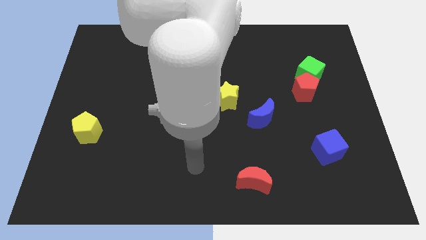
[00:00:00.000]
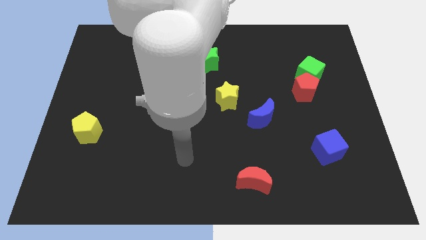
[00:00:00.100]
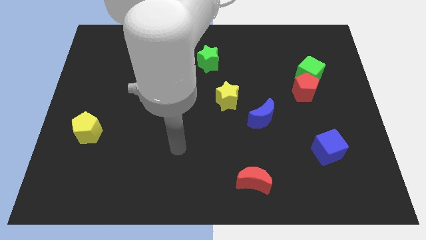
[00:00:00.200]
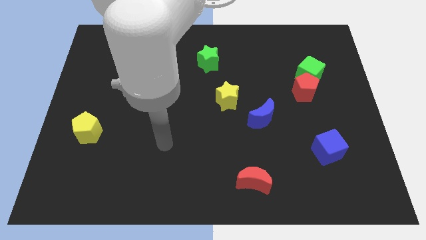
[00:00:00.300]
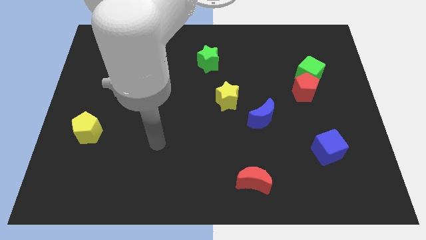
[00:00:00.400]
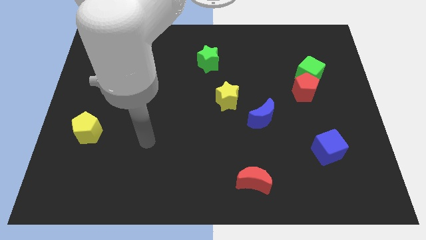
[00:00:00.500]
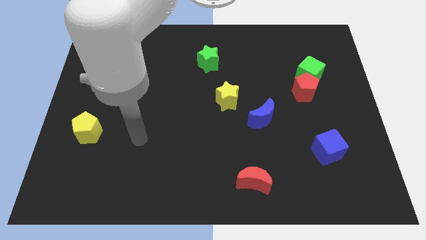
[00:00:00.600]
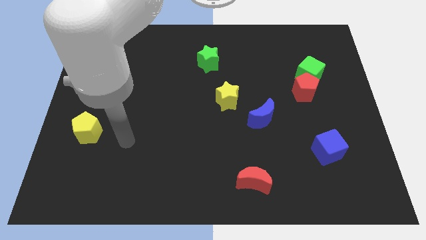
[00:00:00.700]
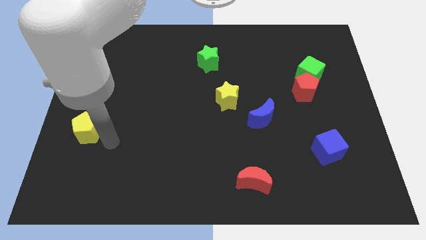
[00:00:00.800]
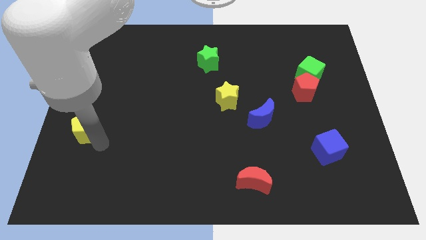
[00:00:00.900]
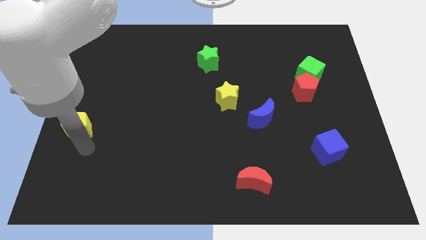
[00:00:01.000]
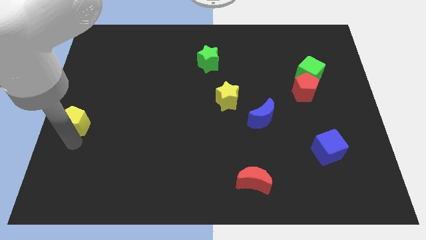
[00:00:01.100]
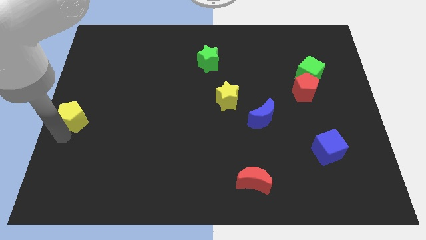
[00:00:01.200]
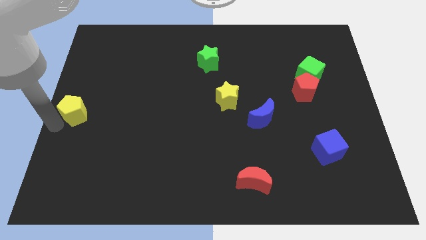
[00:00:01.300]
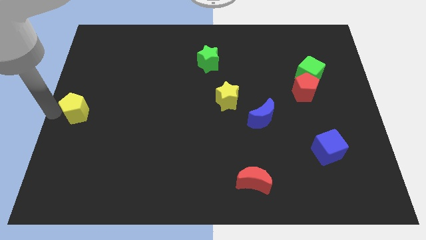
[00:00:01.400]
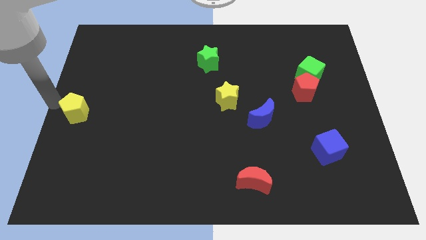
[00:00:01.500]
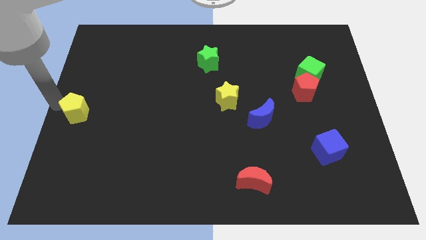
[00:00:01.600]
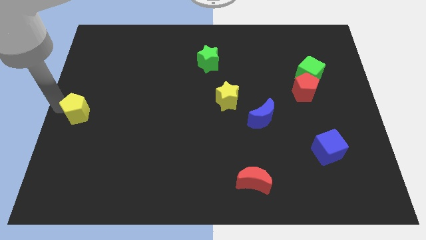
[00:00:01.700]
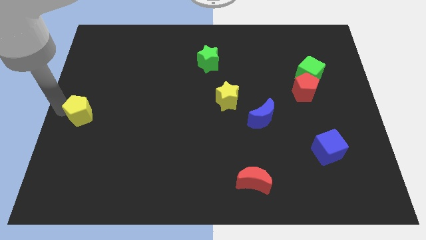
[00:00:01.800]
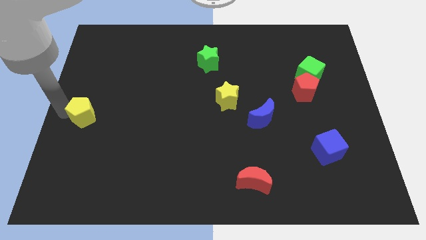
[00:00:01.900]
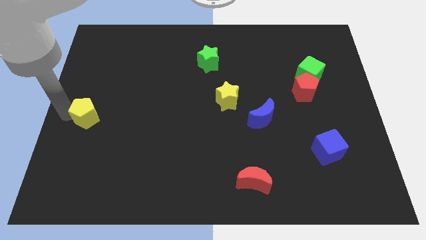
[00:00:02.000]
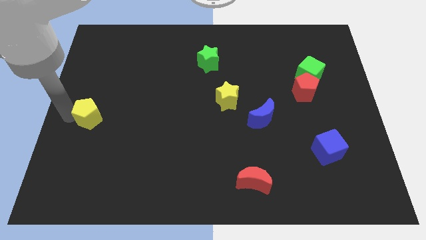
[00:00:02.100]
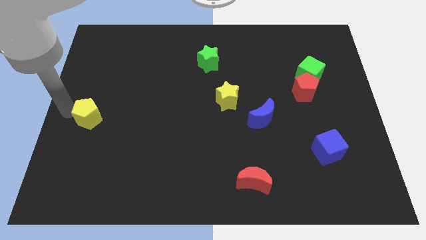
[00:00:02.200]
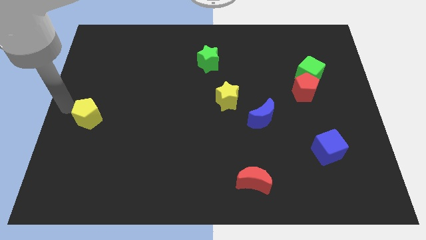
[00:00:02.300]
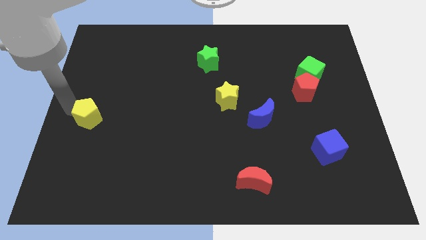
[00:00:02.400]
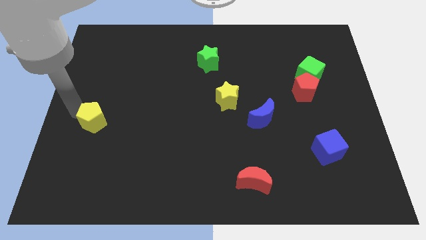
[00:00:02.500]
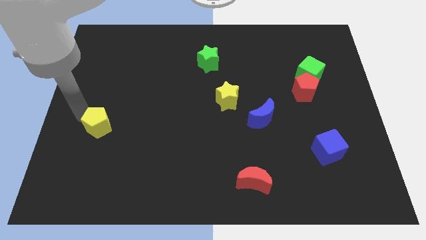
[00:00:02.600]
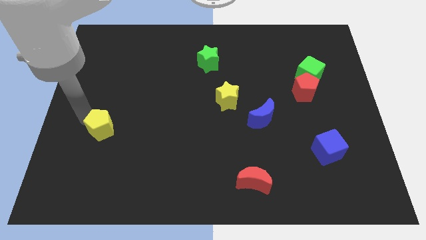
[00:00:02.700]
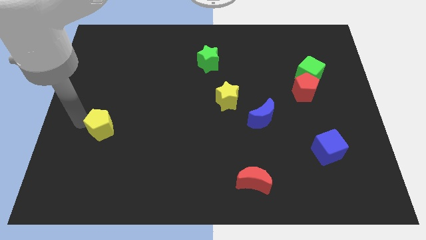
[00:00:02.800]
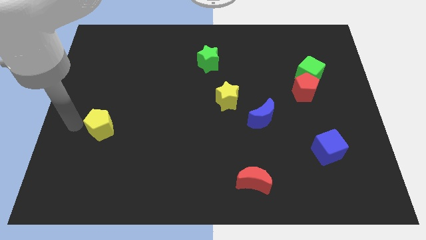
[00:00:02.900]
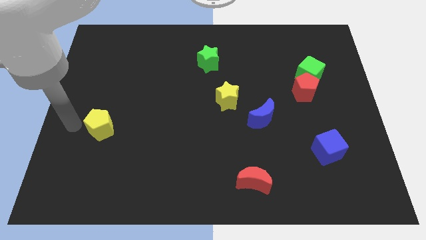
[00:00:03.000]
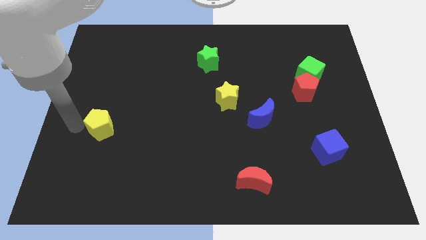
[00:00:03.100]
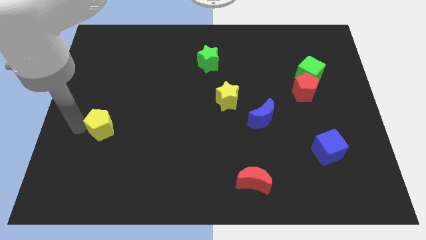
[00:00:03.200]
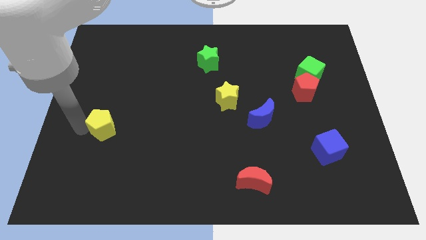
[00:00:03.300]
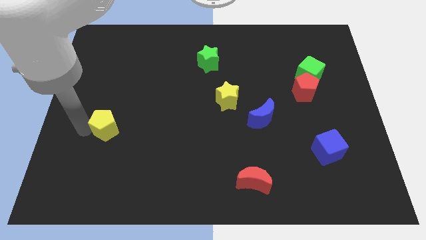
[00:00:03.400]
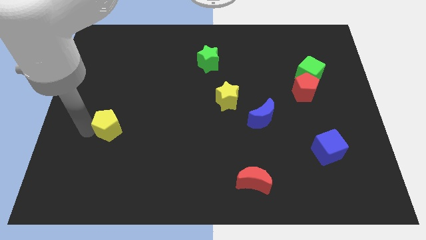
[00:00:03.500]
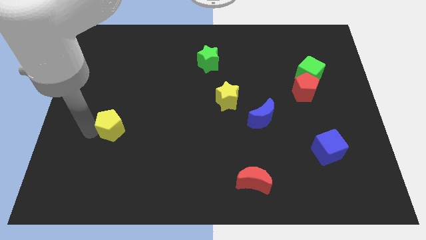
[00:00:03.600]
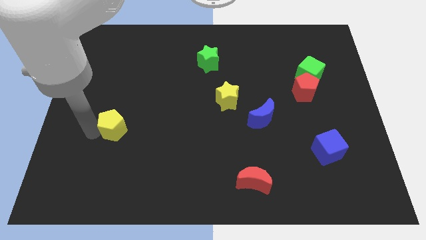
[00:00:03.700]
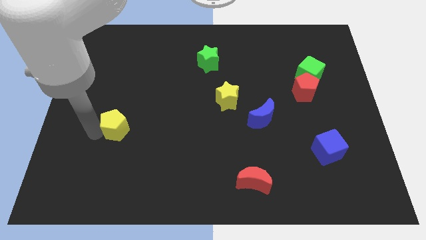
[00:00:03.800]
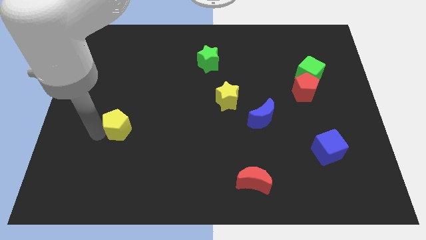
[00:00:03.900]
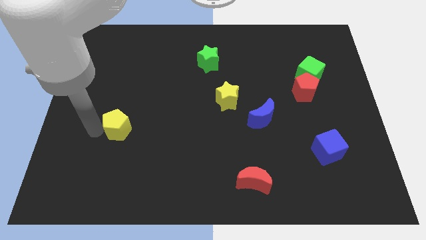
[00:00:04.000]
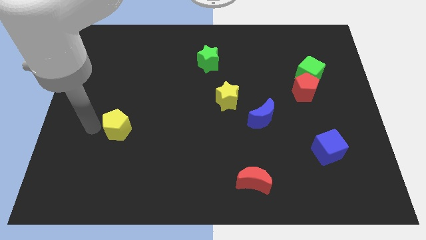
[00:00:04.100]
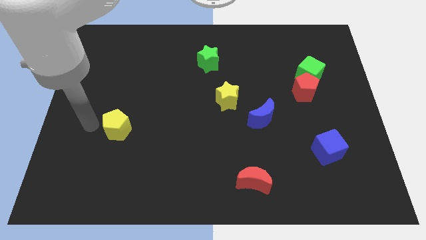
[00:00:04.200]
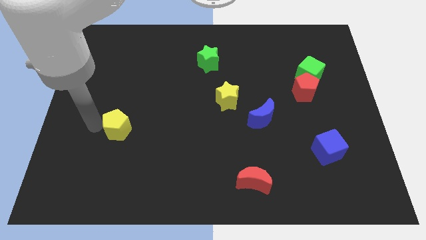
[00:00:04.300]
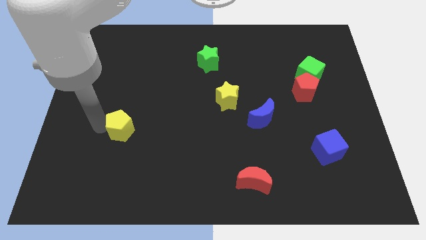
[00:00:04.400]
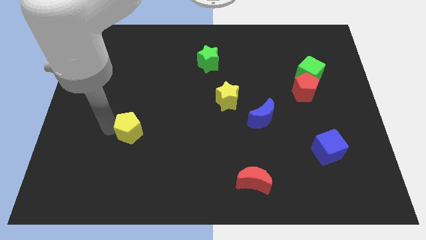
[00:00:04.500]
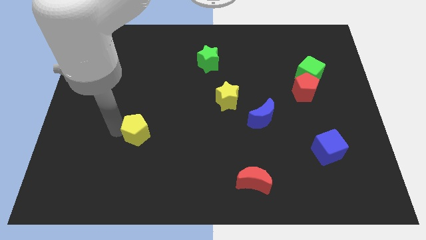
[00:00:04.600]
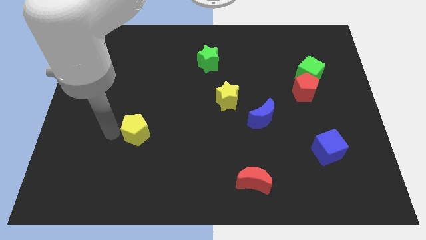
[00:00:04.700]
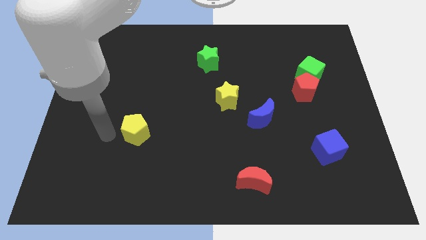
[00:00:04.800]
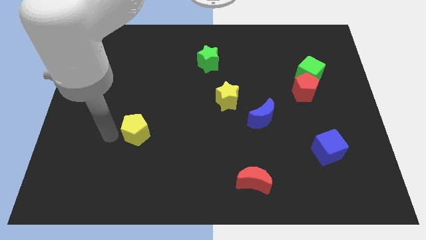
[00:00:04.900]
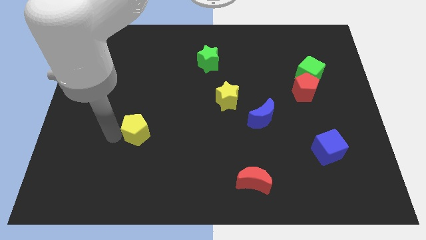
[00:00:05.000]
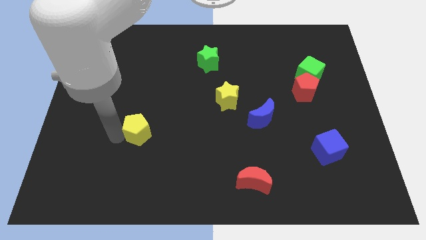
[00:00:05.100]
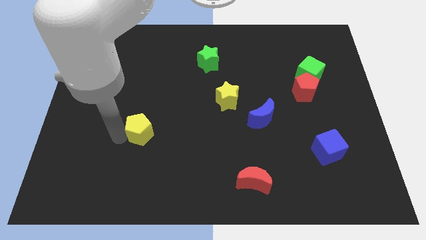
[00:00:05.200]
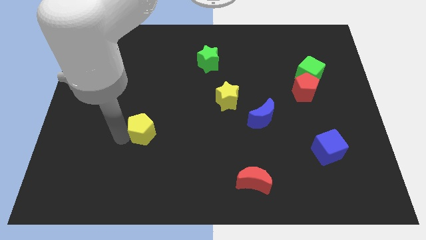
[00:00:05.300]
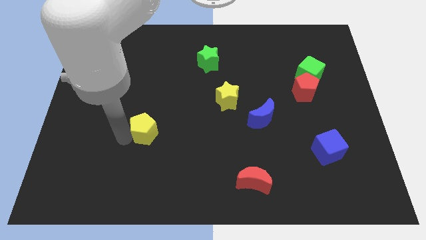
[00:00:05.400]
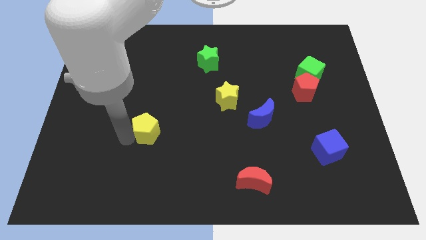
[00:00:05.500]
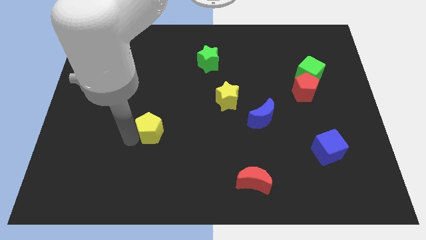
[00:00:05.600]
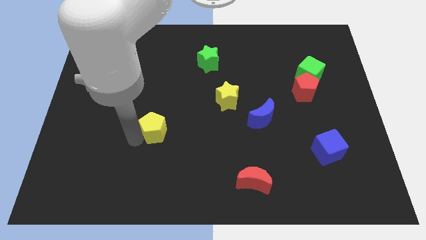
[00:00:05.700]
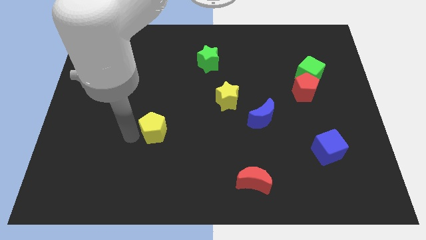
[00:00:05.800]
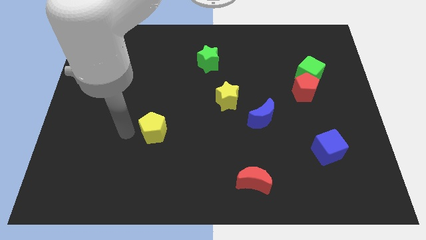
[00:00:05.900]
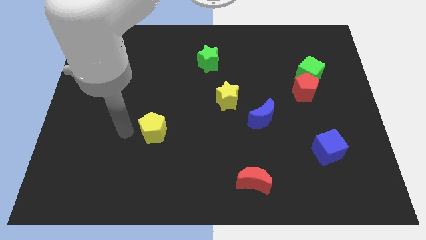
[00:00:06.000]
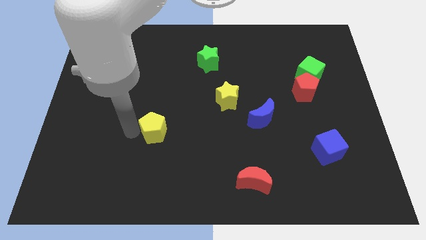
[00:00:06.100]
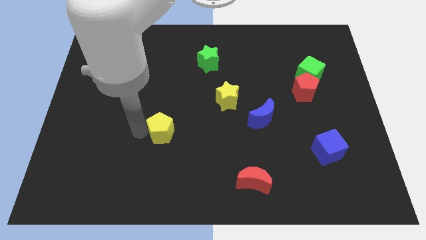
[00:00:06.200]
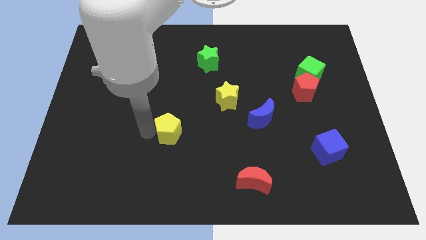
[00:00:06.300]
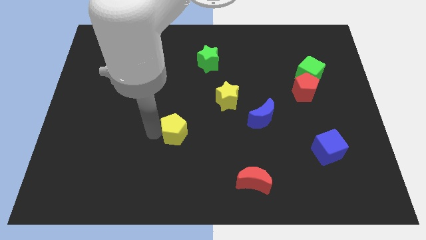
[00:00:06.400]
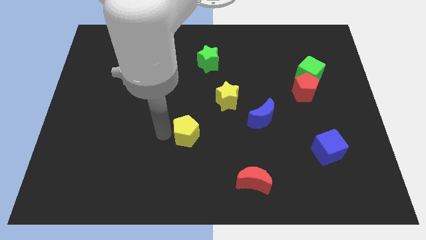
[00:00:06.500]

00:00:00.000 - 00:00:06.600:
push the yellow pentagon to the right

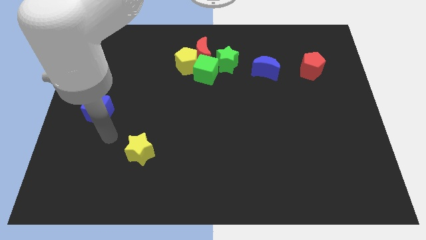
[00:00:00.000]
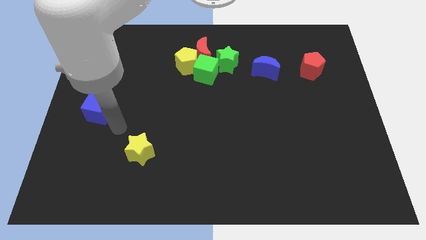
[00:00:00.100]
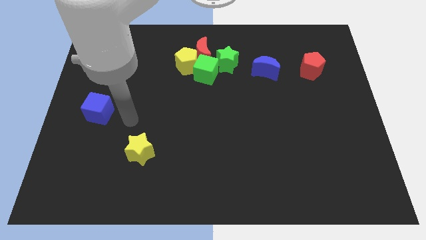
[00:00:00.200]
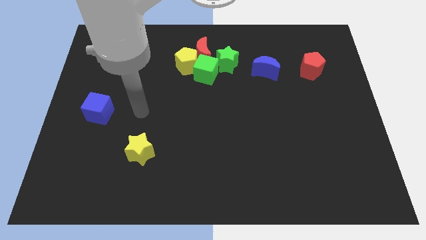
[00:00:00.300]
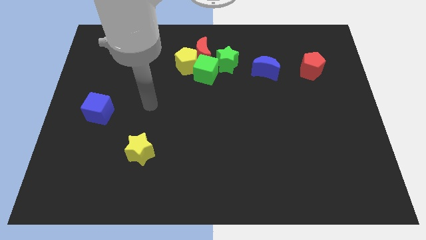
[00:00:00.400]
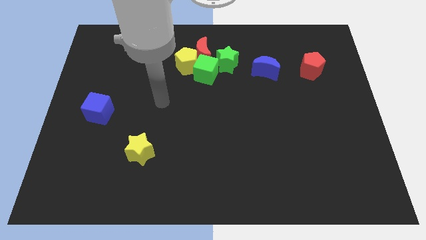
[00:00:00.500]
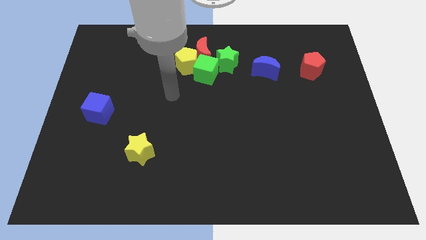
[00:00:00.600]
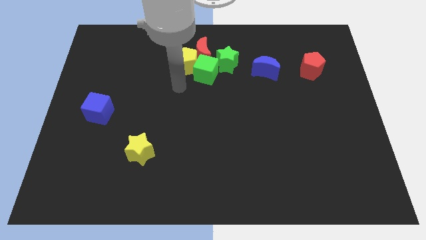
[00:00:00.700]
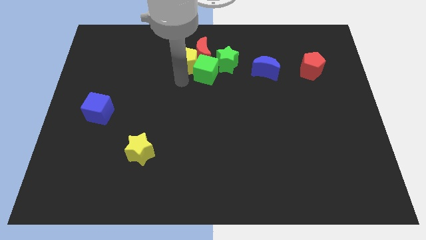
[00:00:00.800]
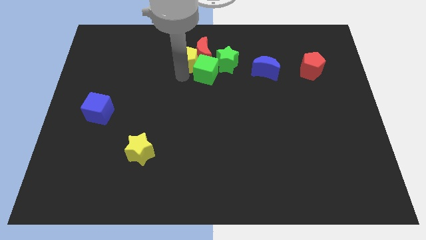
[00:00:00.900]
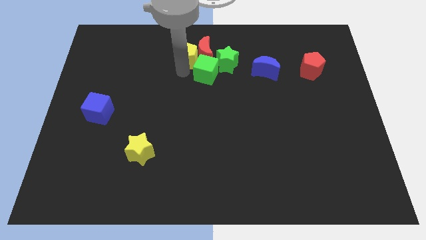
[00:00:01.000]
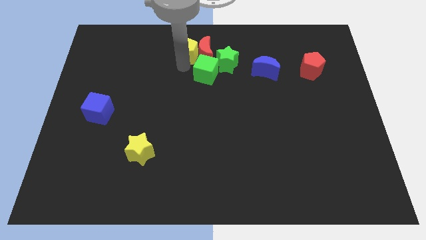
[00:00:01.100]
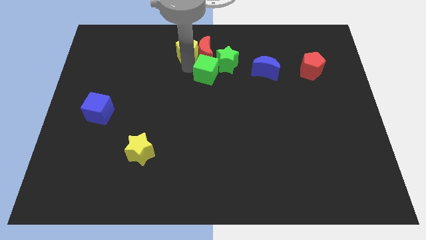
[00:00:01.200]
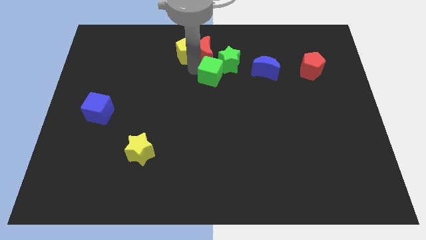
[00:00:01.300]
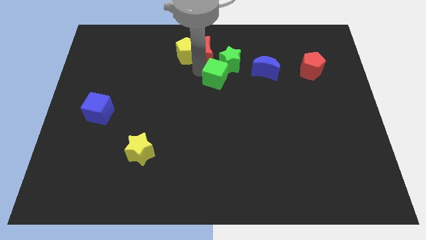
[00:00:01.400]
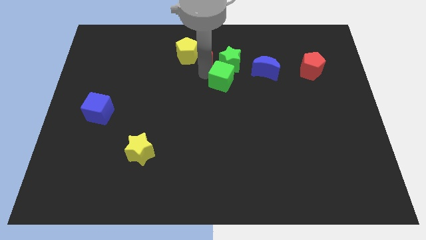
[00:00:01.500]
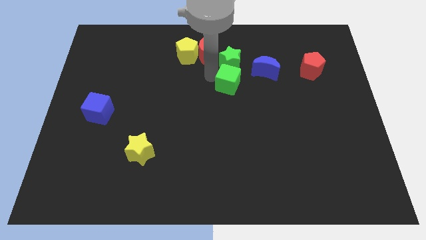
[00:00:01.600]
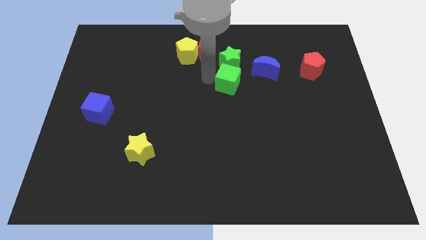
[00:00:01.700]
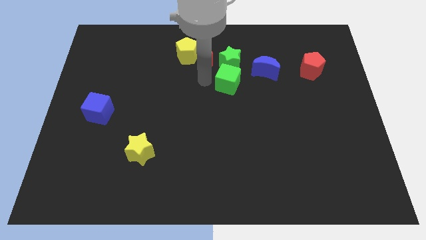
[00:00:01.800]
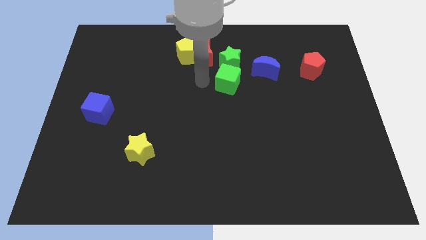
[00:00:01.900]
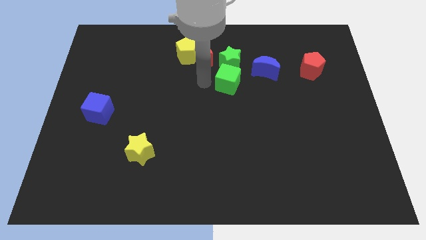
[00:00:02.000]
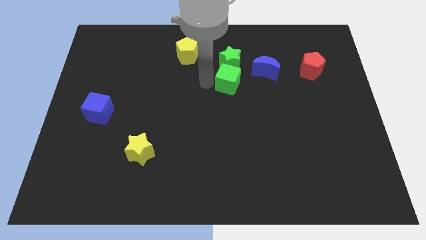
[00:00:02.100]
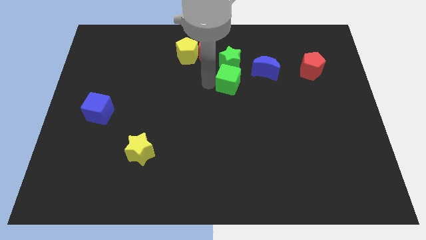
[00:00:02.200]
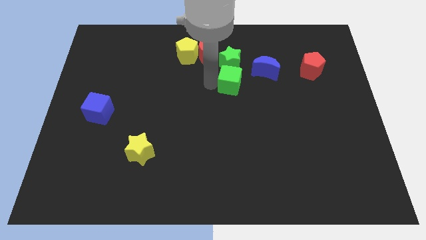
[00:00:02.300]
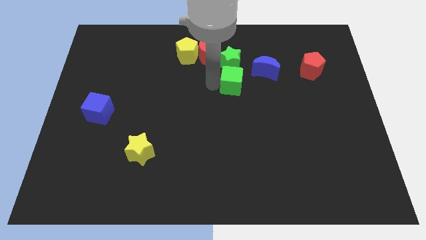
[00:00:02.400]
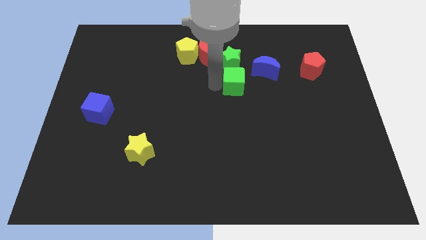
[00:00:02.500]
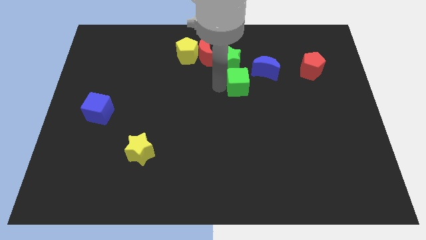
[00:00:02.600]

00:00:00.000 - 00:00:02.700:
slide the green cube a little to the right
